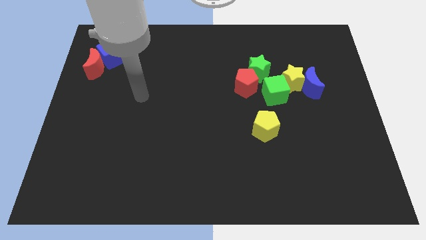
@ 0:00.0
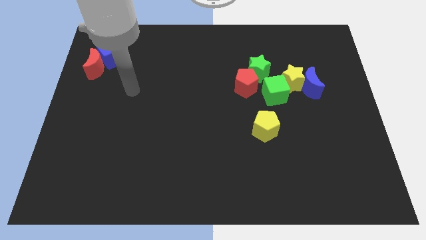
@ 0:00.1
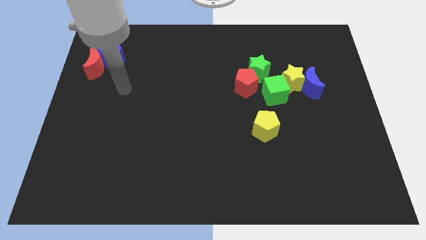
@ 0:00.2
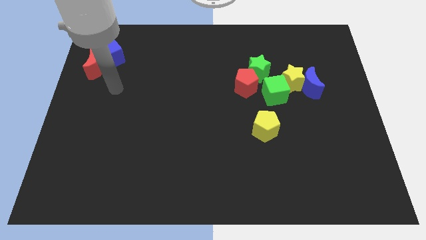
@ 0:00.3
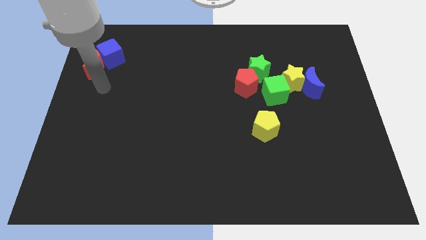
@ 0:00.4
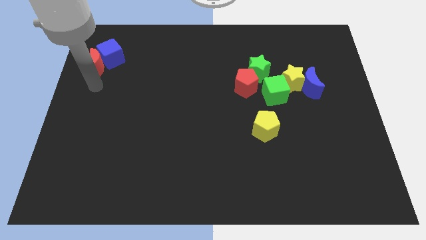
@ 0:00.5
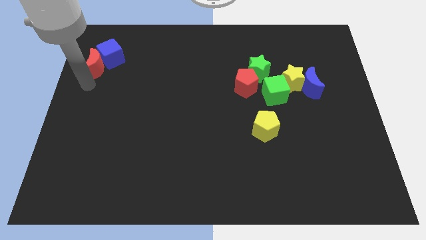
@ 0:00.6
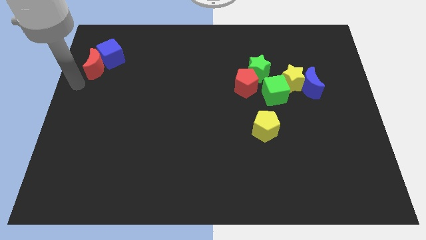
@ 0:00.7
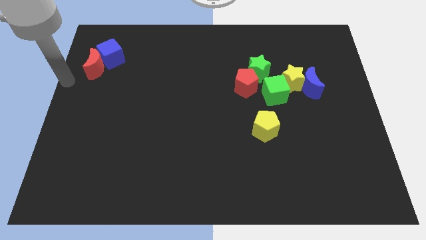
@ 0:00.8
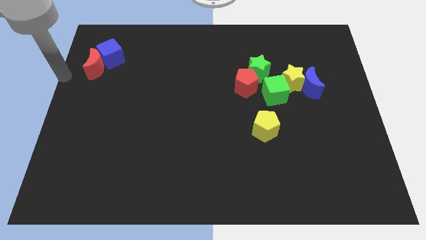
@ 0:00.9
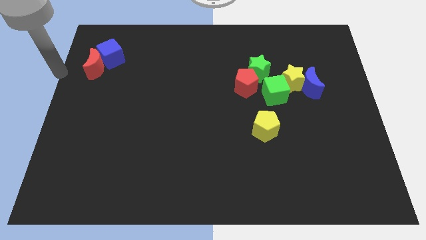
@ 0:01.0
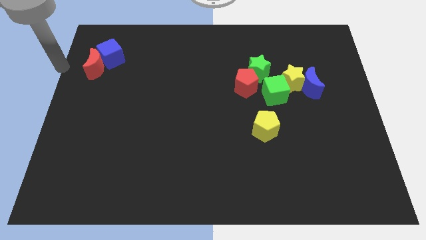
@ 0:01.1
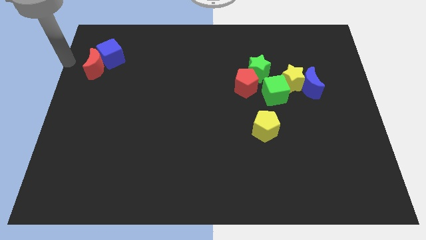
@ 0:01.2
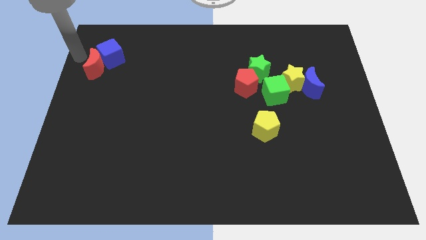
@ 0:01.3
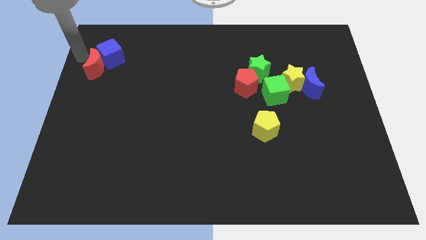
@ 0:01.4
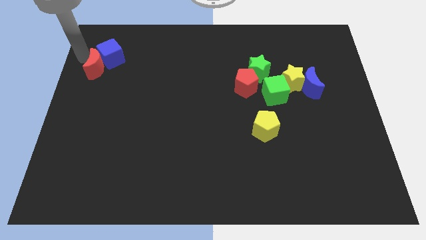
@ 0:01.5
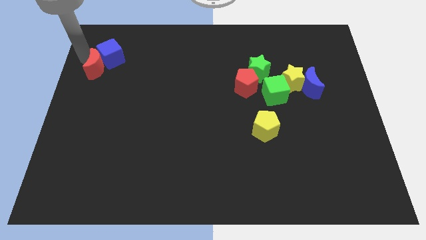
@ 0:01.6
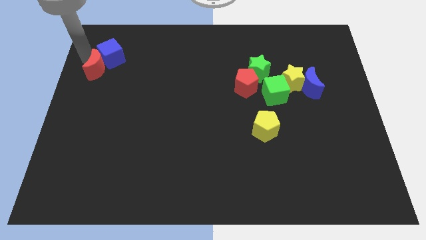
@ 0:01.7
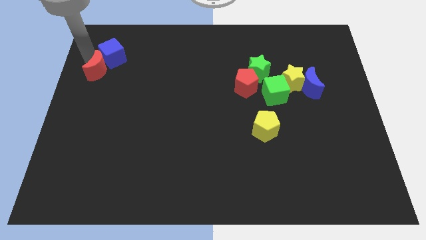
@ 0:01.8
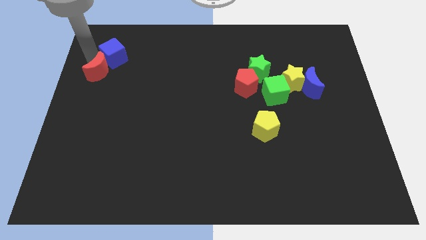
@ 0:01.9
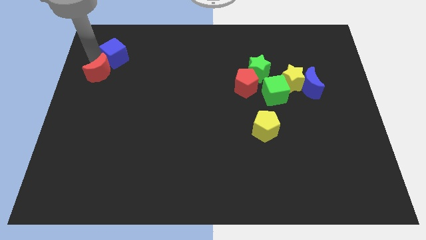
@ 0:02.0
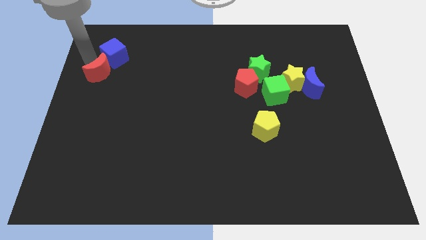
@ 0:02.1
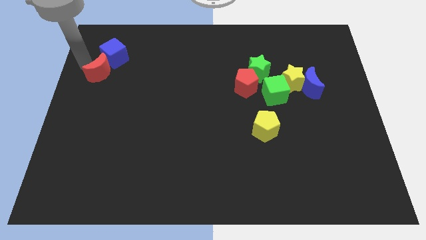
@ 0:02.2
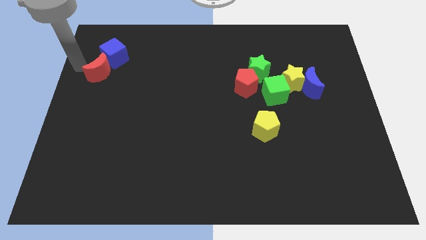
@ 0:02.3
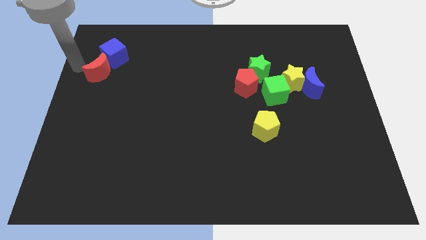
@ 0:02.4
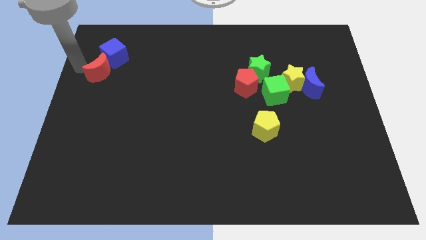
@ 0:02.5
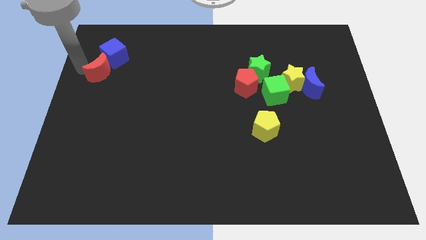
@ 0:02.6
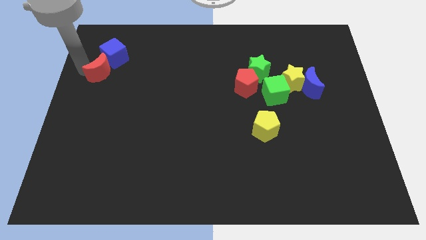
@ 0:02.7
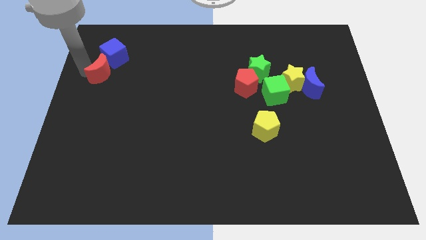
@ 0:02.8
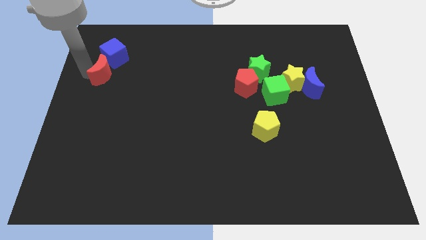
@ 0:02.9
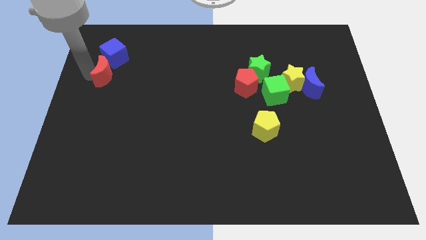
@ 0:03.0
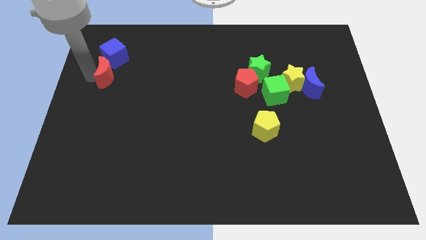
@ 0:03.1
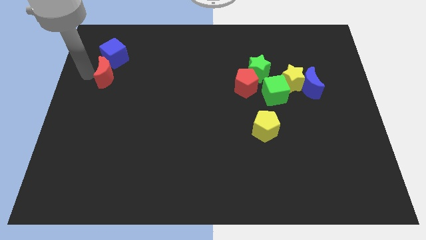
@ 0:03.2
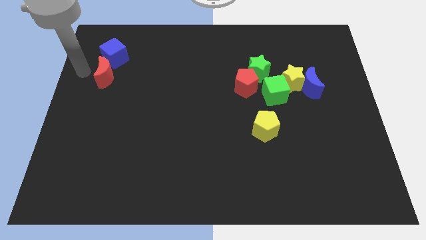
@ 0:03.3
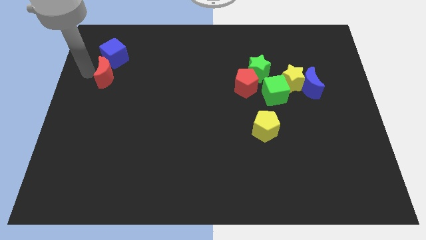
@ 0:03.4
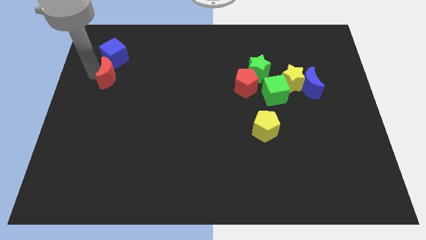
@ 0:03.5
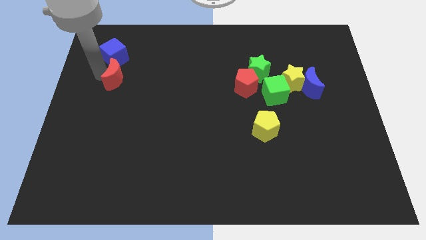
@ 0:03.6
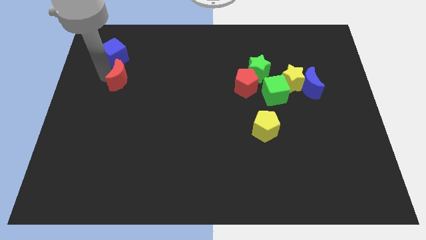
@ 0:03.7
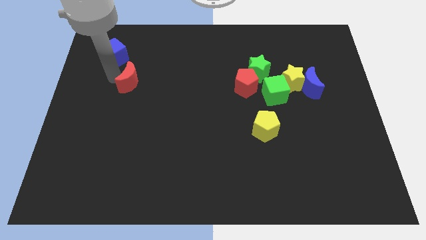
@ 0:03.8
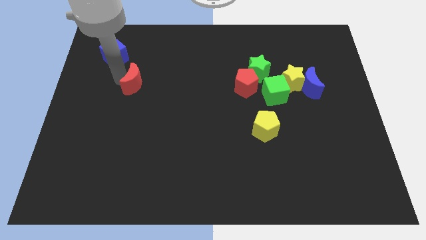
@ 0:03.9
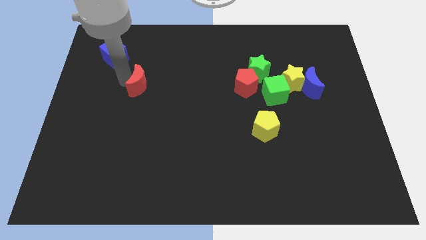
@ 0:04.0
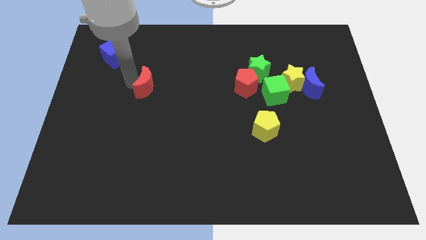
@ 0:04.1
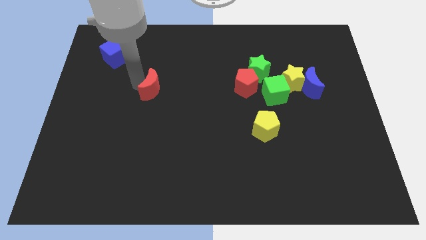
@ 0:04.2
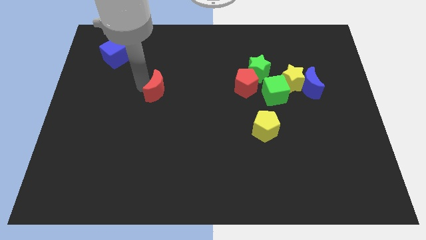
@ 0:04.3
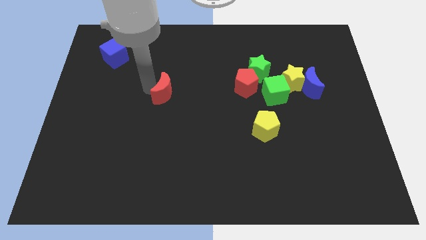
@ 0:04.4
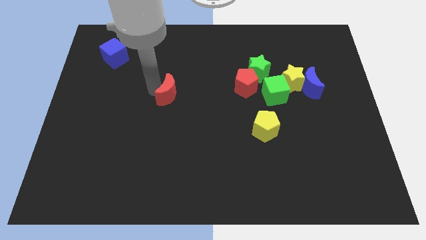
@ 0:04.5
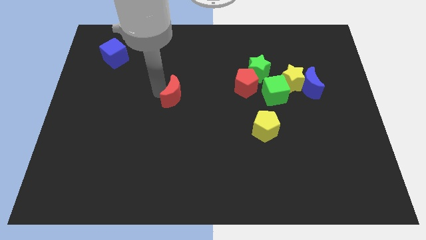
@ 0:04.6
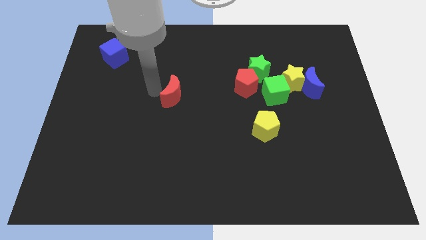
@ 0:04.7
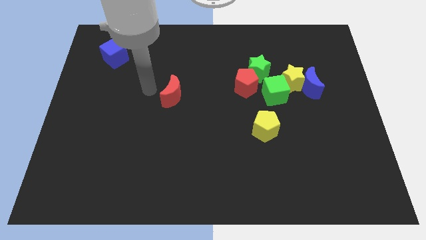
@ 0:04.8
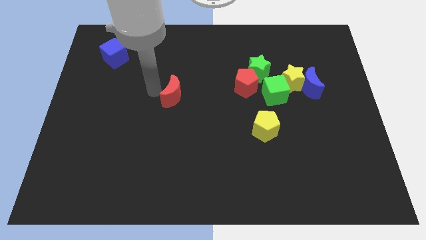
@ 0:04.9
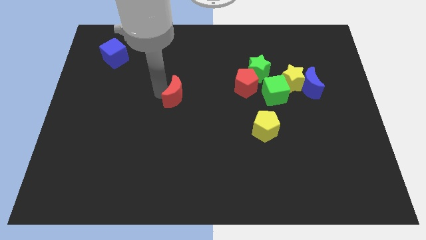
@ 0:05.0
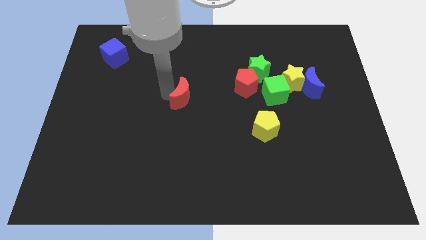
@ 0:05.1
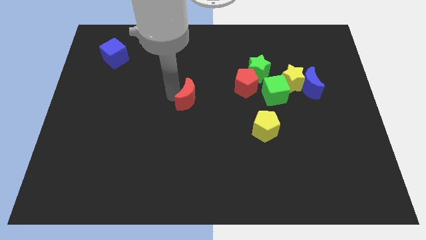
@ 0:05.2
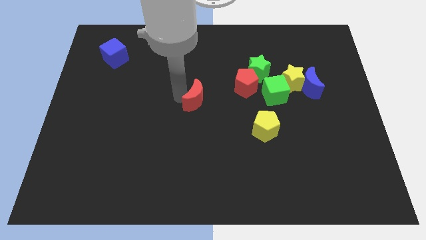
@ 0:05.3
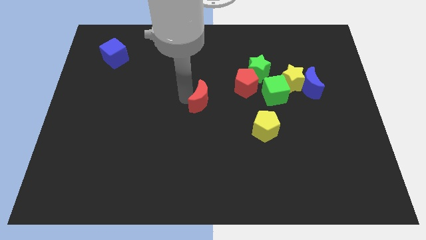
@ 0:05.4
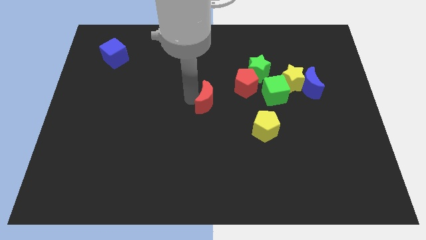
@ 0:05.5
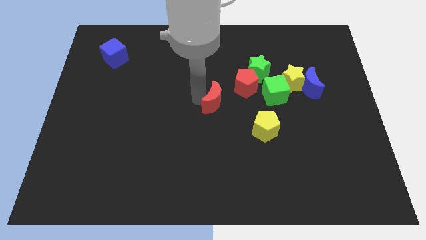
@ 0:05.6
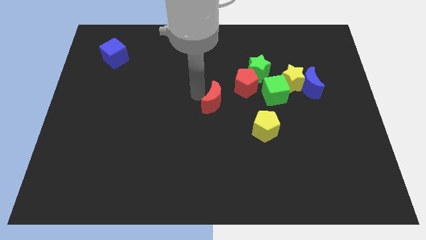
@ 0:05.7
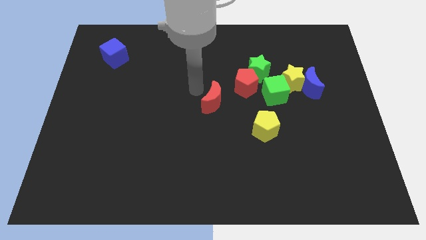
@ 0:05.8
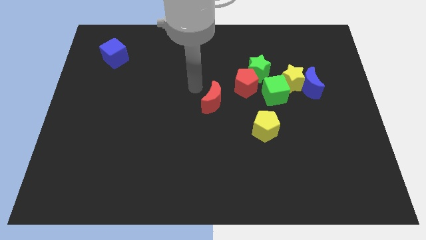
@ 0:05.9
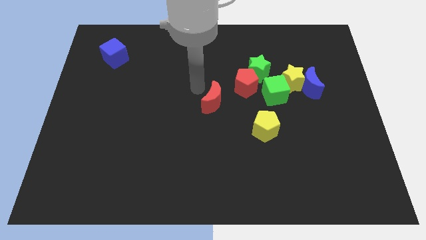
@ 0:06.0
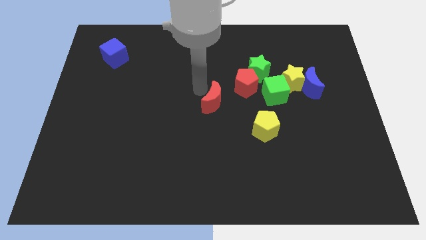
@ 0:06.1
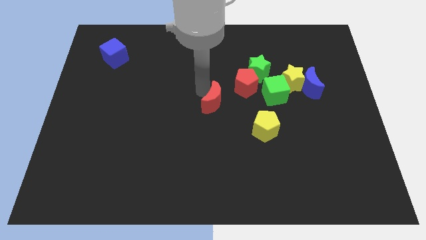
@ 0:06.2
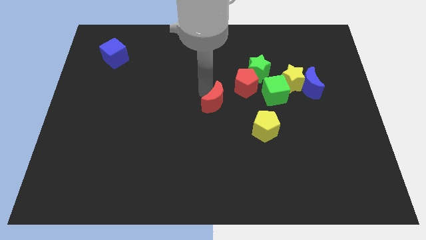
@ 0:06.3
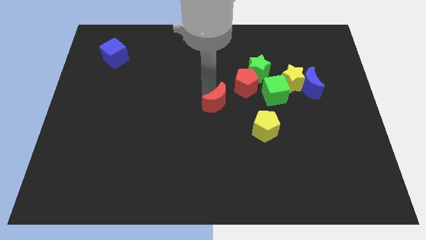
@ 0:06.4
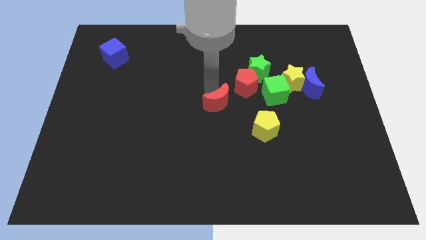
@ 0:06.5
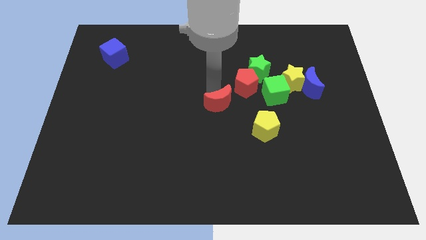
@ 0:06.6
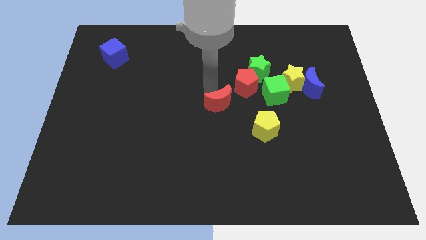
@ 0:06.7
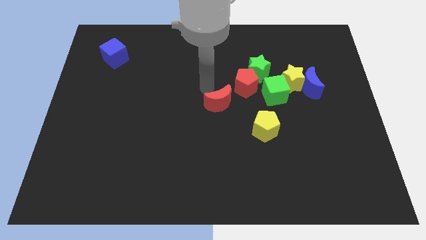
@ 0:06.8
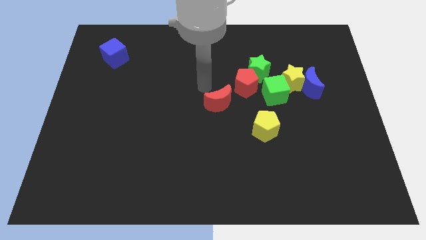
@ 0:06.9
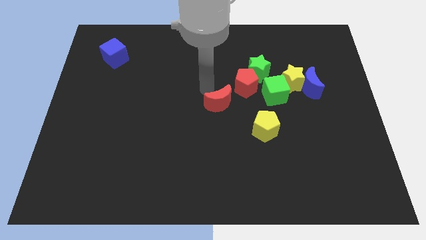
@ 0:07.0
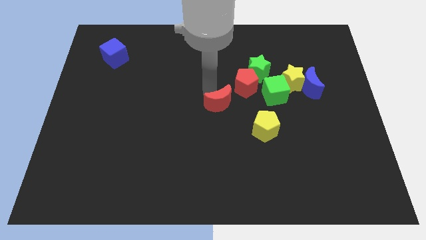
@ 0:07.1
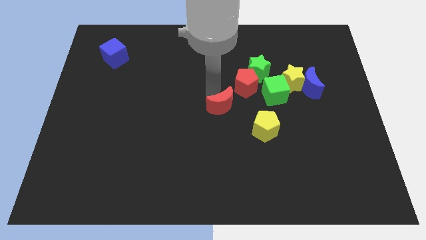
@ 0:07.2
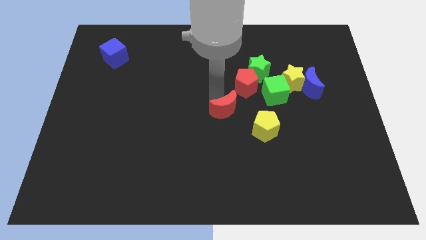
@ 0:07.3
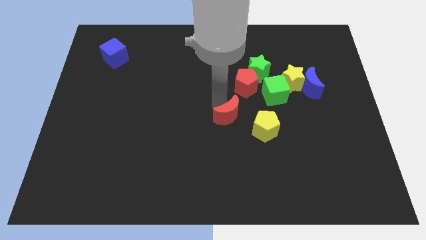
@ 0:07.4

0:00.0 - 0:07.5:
slide the red moon below the red pentagon
